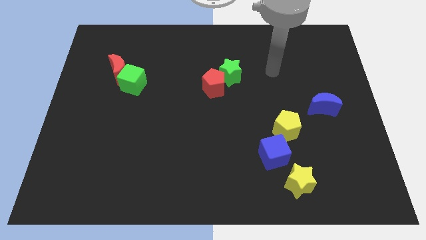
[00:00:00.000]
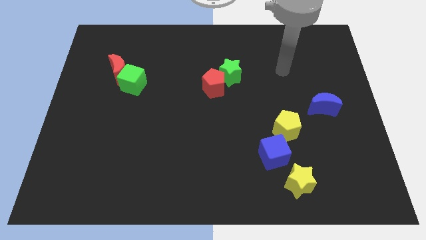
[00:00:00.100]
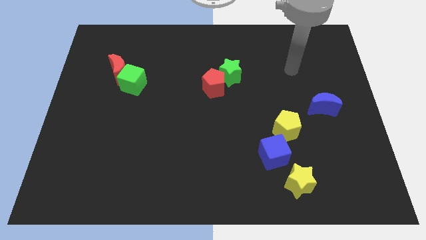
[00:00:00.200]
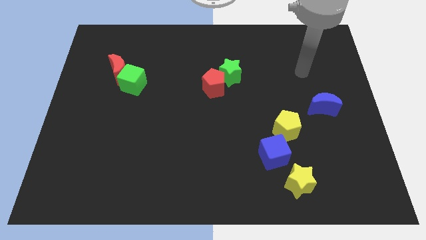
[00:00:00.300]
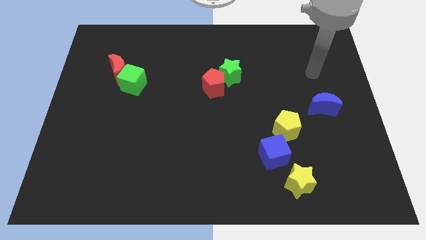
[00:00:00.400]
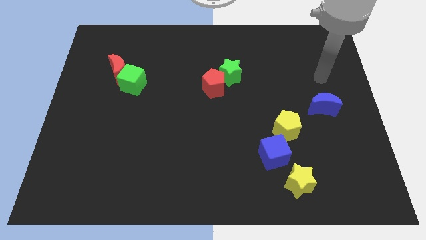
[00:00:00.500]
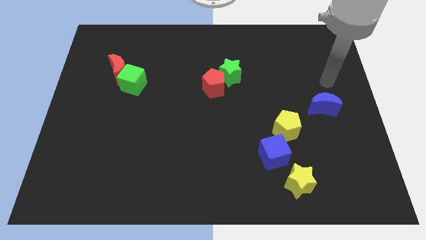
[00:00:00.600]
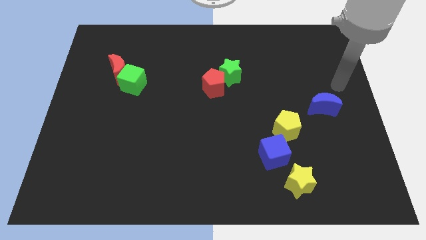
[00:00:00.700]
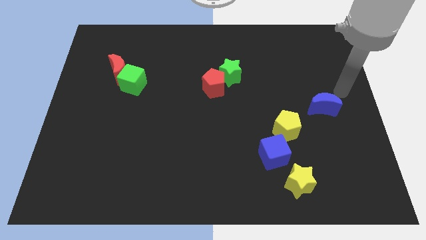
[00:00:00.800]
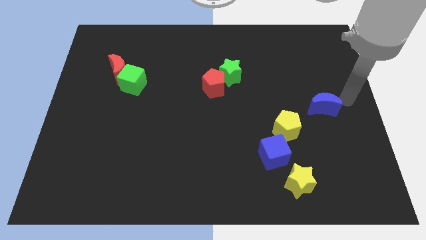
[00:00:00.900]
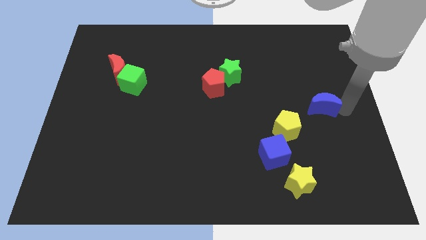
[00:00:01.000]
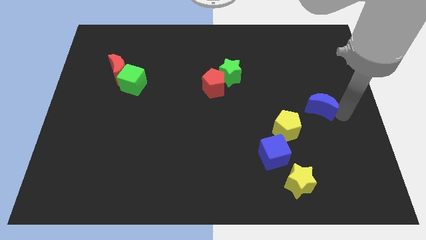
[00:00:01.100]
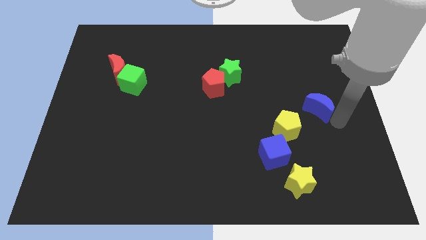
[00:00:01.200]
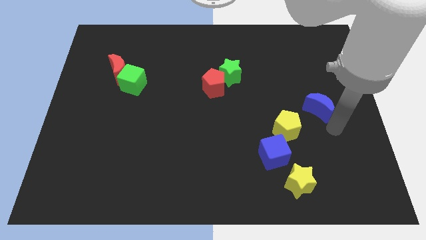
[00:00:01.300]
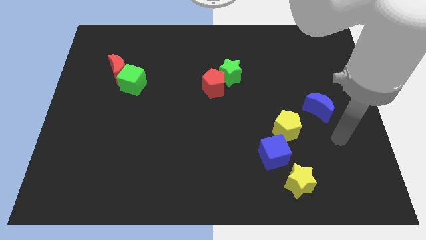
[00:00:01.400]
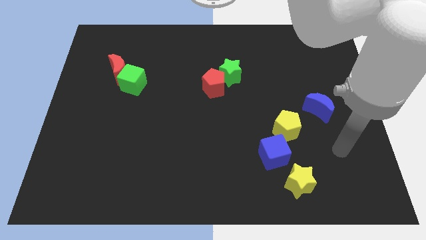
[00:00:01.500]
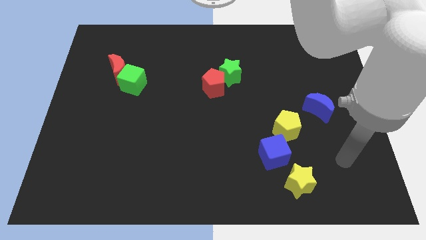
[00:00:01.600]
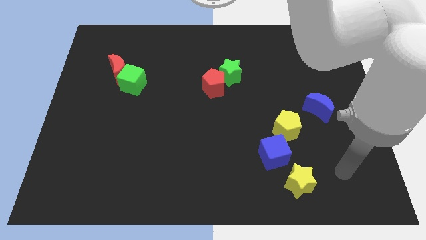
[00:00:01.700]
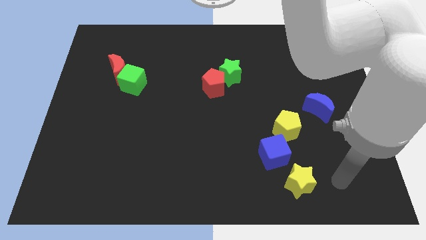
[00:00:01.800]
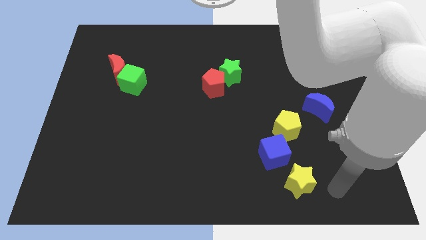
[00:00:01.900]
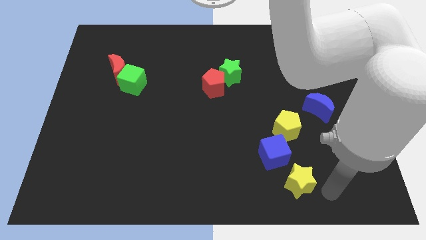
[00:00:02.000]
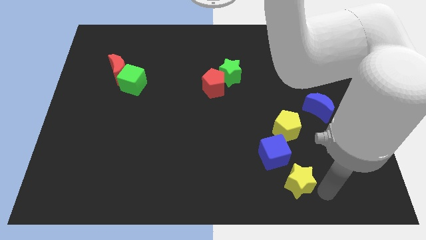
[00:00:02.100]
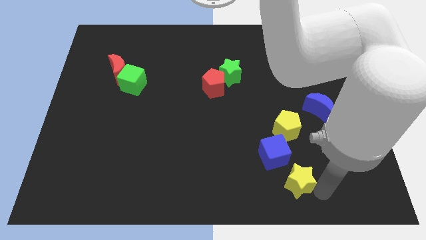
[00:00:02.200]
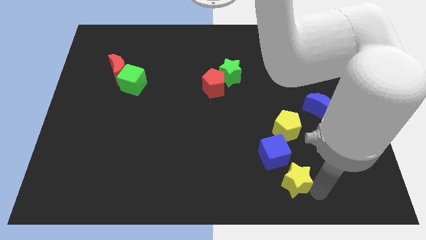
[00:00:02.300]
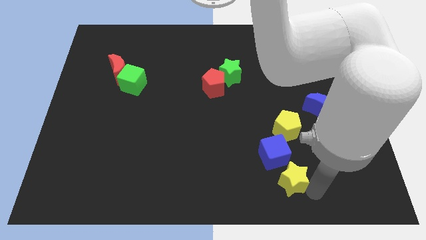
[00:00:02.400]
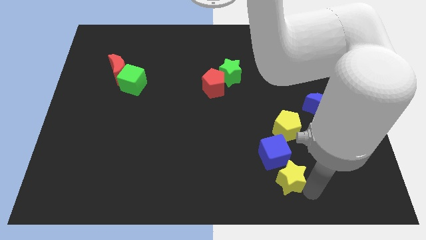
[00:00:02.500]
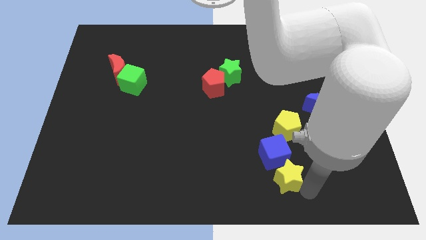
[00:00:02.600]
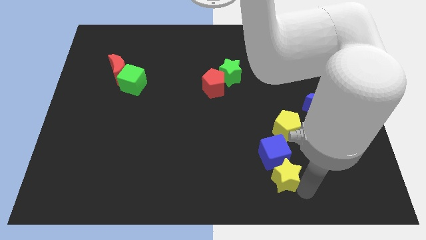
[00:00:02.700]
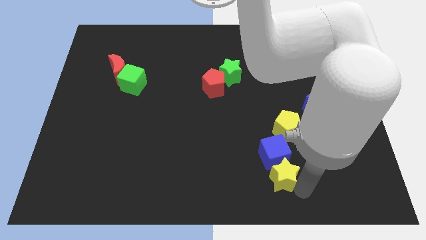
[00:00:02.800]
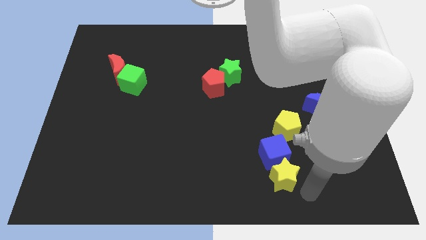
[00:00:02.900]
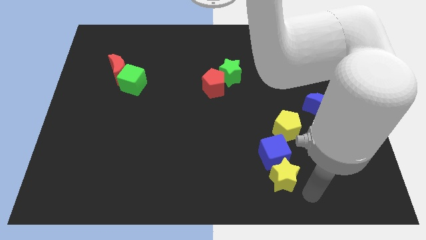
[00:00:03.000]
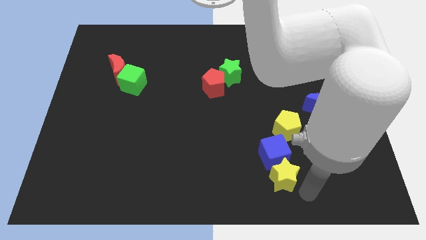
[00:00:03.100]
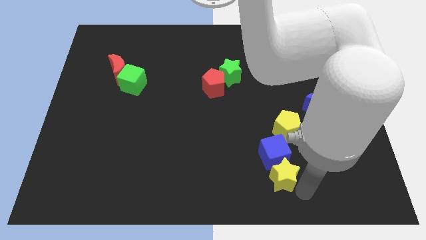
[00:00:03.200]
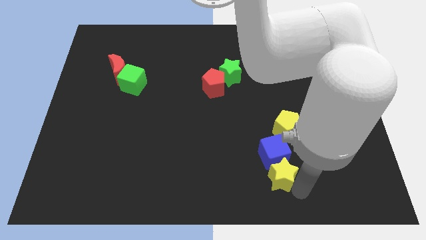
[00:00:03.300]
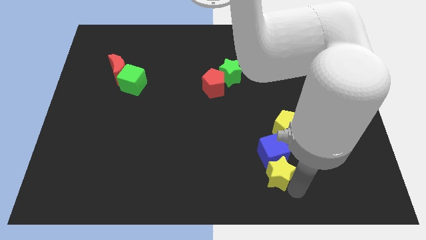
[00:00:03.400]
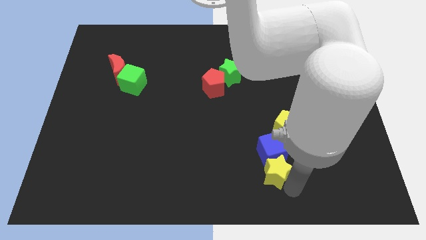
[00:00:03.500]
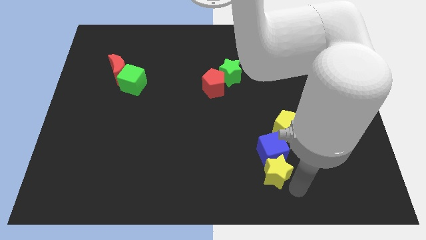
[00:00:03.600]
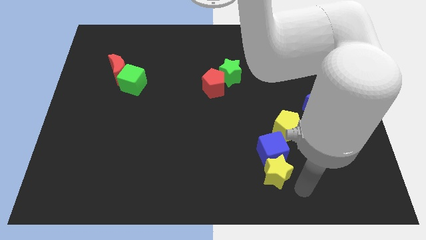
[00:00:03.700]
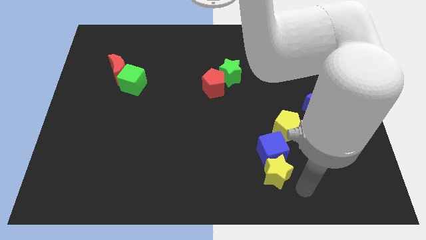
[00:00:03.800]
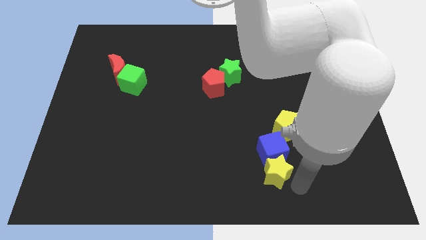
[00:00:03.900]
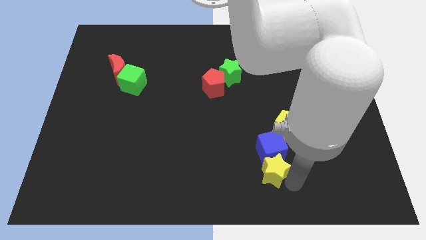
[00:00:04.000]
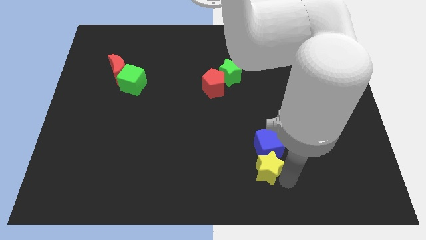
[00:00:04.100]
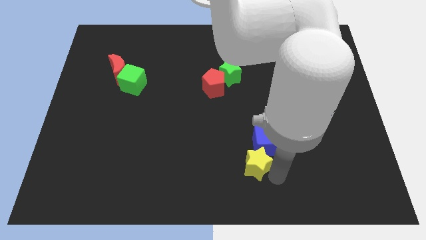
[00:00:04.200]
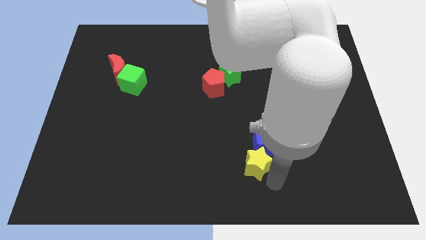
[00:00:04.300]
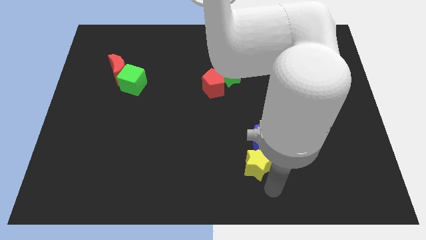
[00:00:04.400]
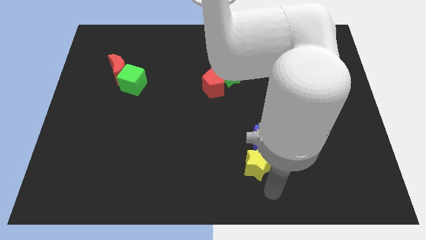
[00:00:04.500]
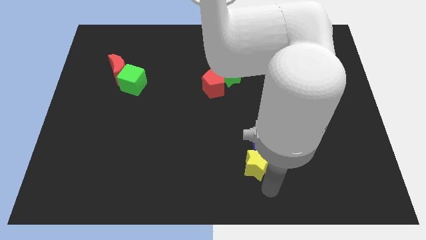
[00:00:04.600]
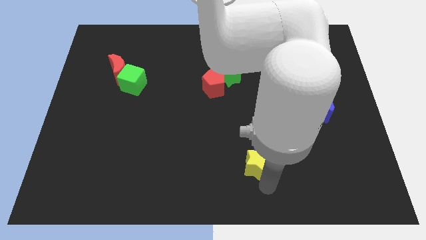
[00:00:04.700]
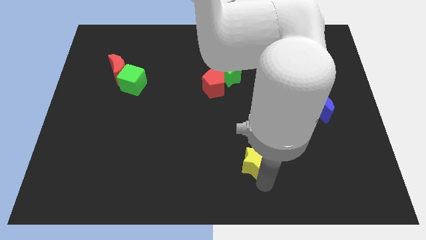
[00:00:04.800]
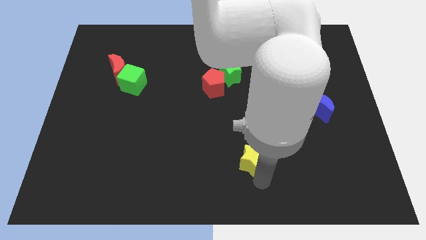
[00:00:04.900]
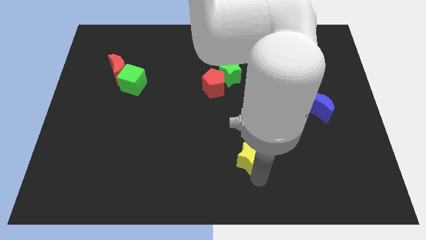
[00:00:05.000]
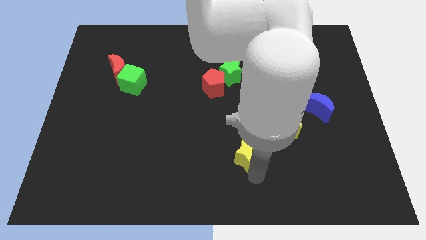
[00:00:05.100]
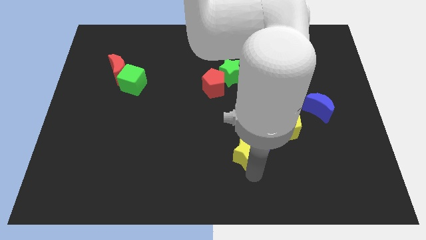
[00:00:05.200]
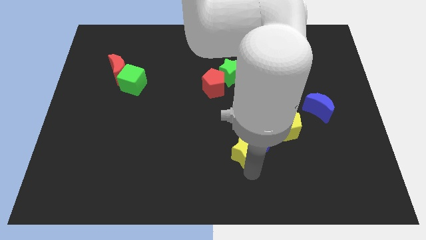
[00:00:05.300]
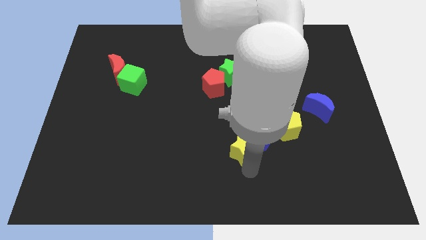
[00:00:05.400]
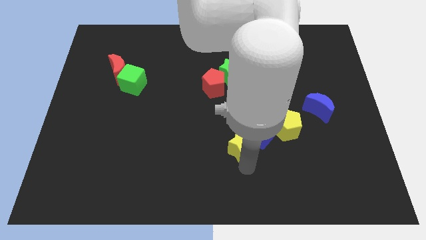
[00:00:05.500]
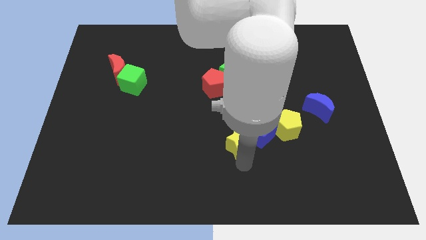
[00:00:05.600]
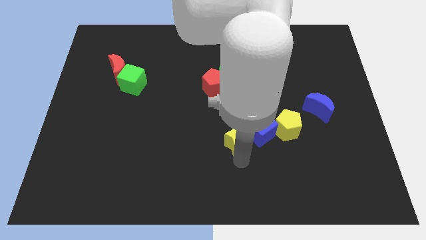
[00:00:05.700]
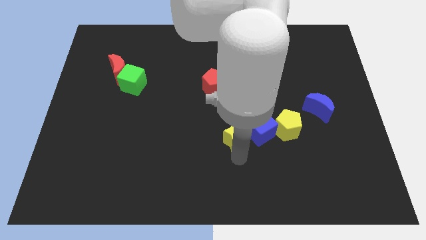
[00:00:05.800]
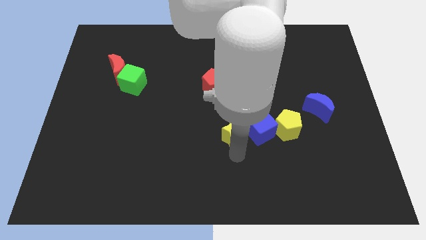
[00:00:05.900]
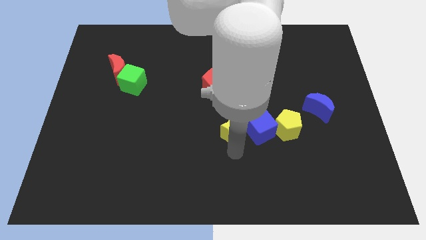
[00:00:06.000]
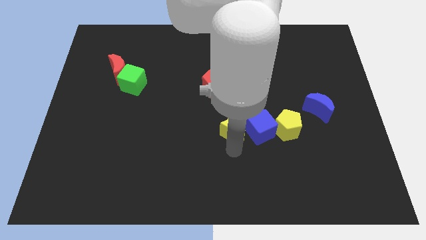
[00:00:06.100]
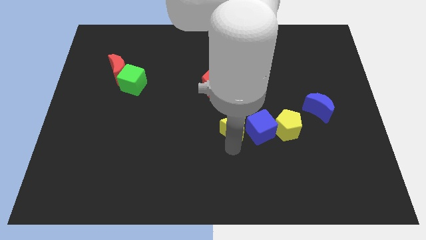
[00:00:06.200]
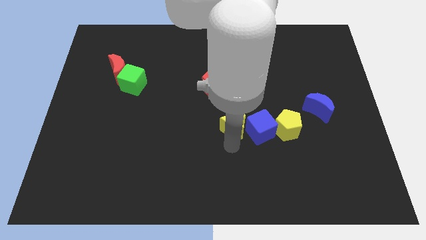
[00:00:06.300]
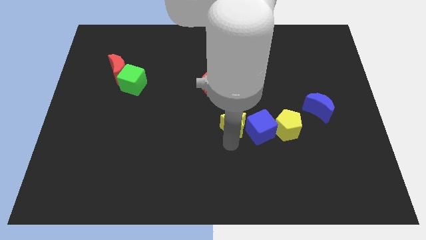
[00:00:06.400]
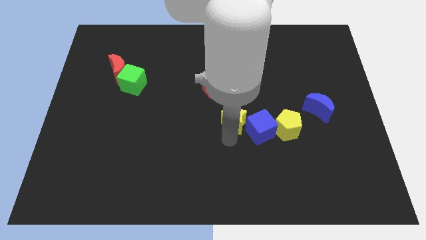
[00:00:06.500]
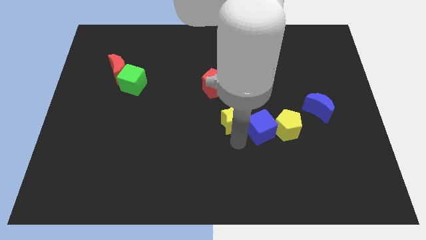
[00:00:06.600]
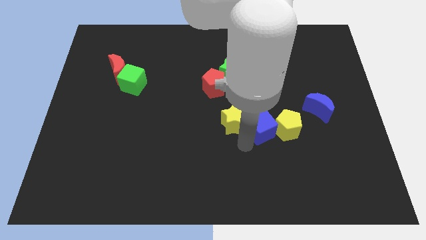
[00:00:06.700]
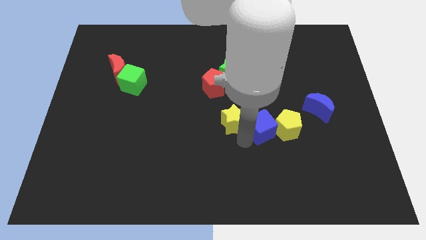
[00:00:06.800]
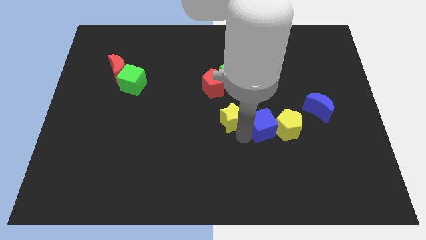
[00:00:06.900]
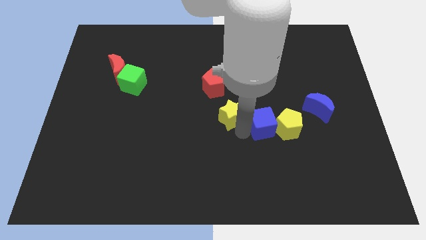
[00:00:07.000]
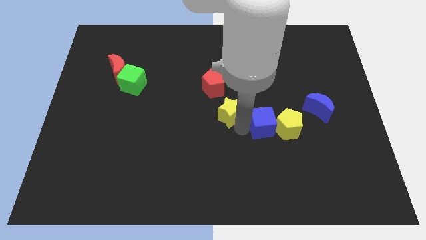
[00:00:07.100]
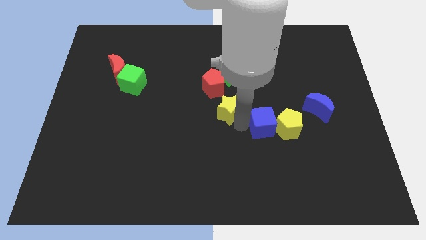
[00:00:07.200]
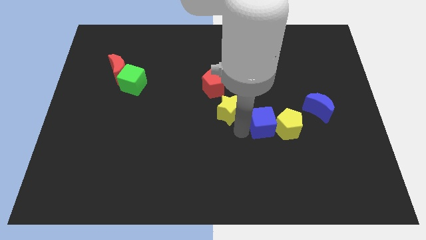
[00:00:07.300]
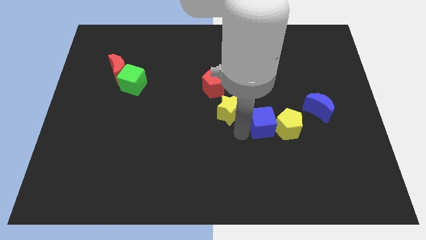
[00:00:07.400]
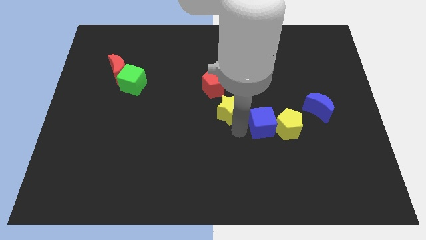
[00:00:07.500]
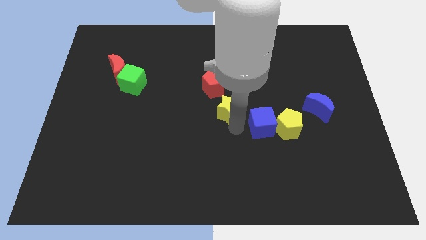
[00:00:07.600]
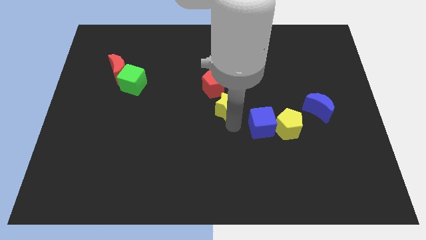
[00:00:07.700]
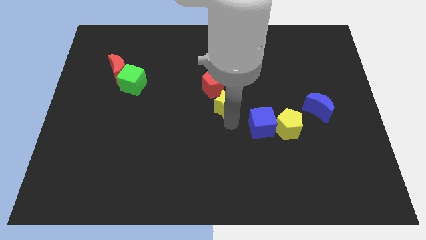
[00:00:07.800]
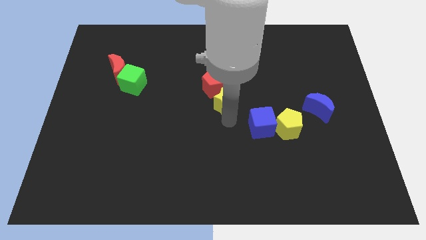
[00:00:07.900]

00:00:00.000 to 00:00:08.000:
move the yellow star towards the red pentagon
